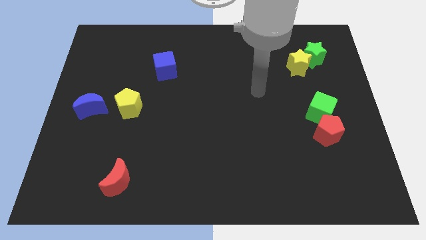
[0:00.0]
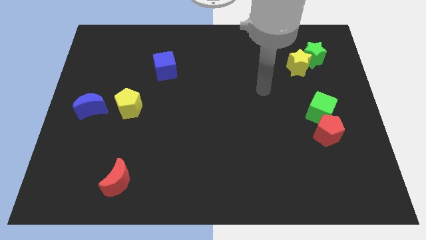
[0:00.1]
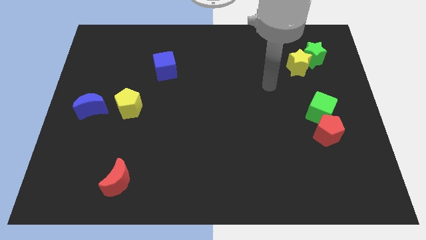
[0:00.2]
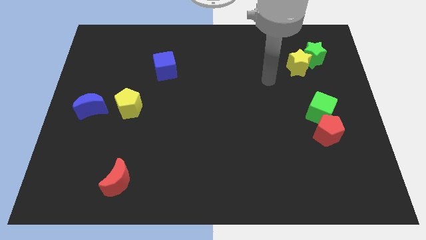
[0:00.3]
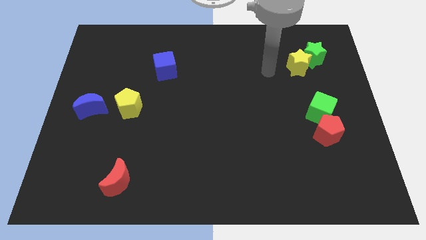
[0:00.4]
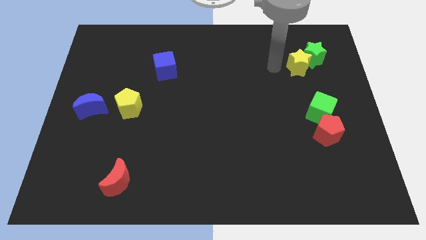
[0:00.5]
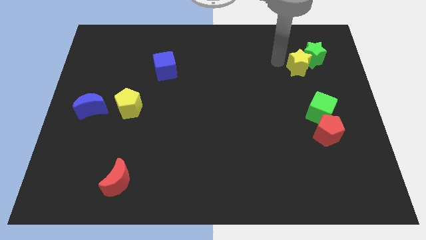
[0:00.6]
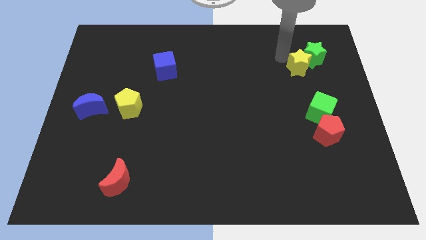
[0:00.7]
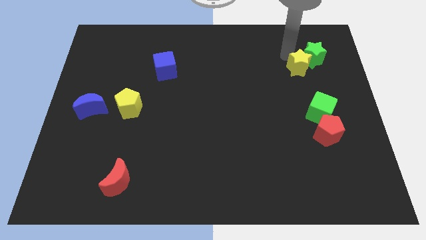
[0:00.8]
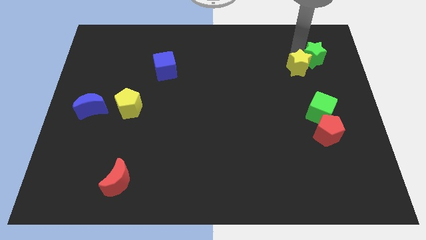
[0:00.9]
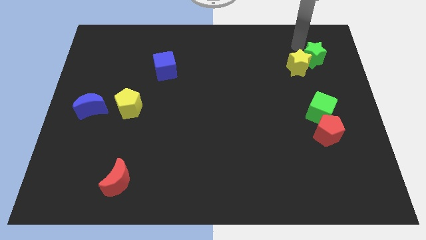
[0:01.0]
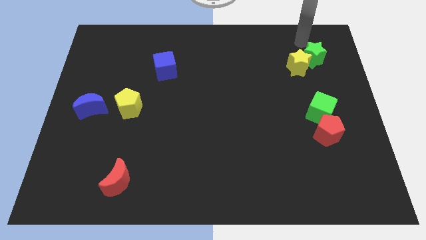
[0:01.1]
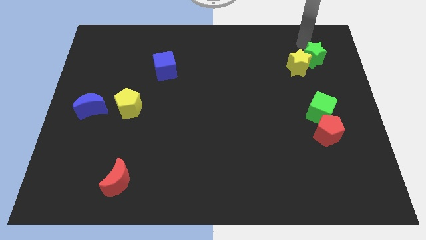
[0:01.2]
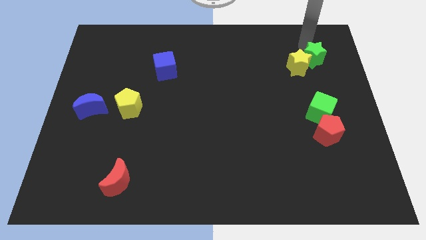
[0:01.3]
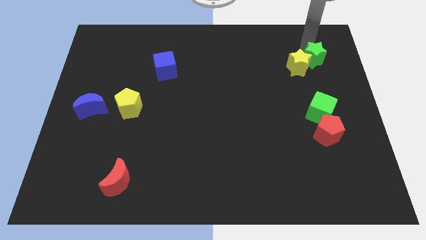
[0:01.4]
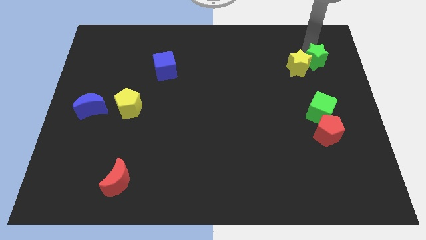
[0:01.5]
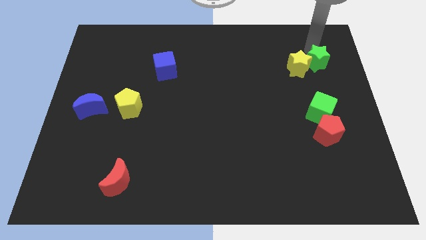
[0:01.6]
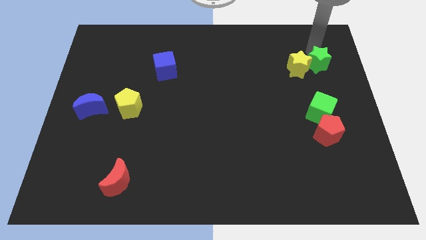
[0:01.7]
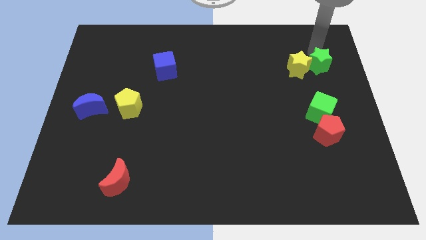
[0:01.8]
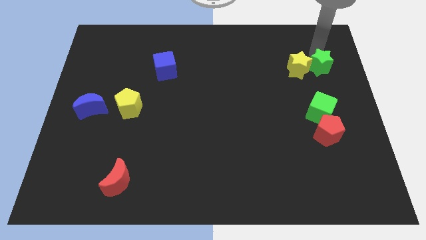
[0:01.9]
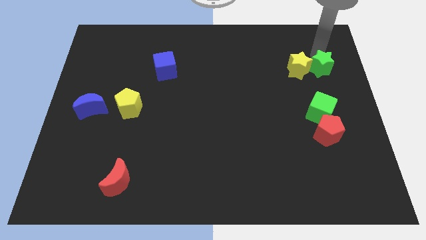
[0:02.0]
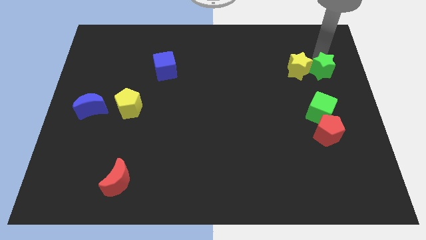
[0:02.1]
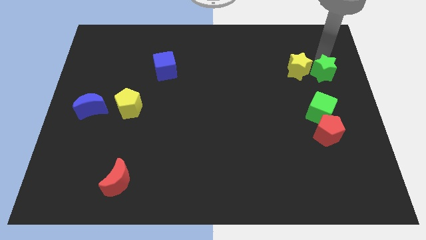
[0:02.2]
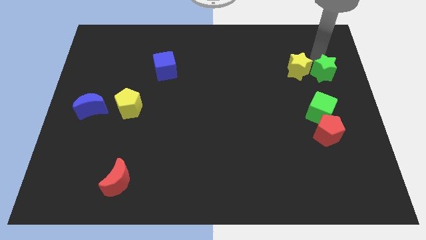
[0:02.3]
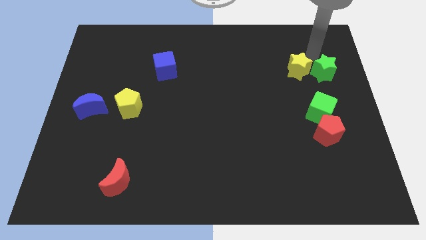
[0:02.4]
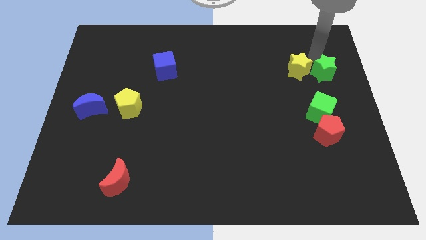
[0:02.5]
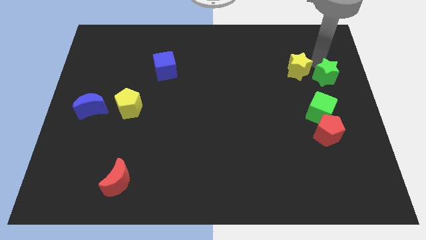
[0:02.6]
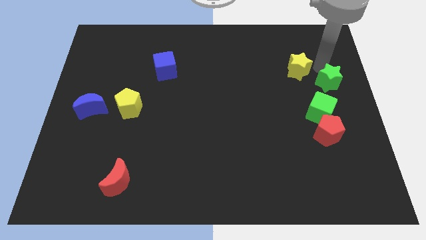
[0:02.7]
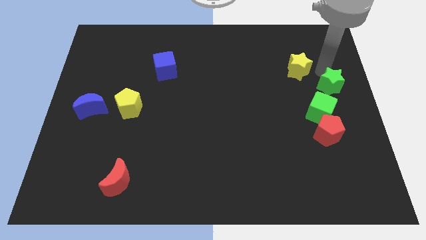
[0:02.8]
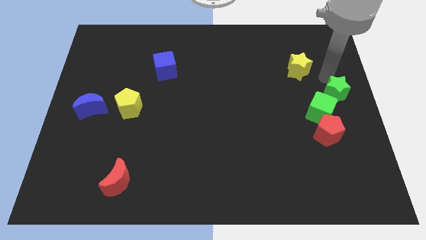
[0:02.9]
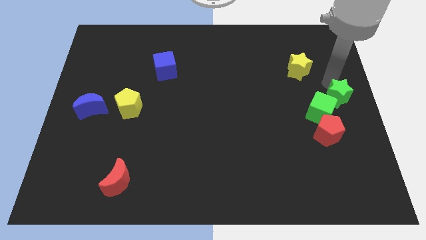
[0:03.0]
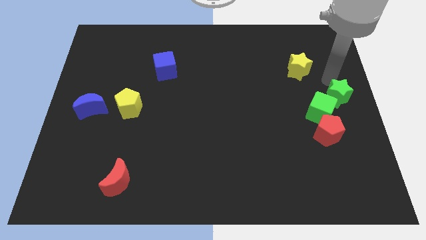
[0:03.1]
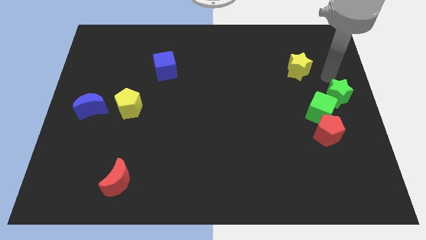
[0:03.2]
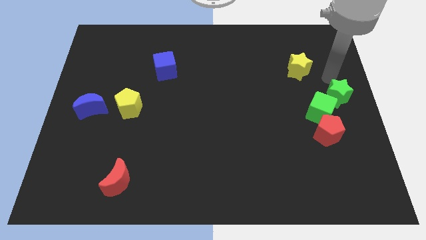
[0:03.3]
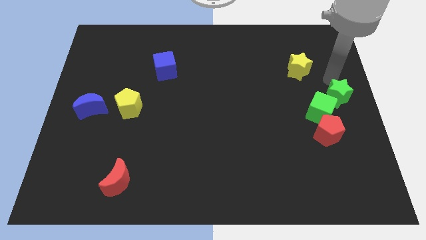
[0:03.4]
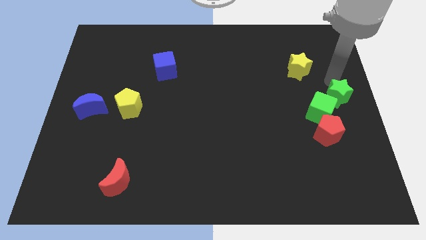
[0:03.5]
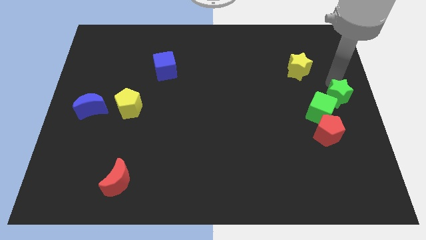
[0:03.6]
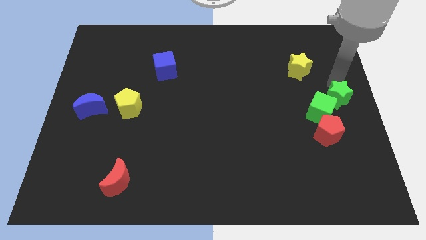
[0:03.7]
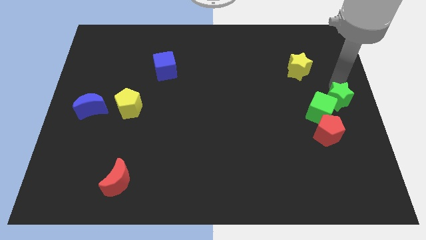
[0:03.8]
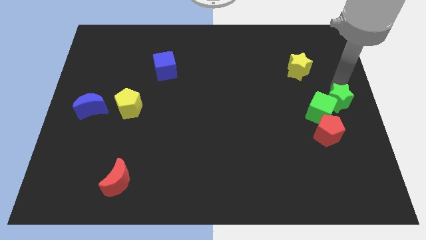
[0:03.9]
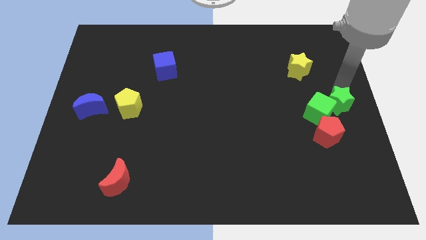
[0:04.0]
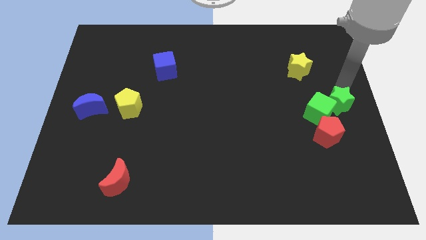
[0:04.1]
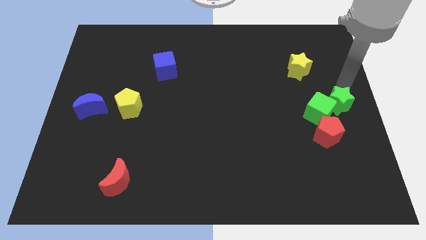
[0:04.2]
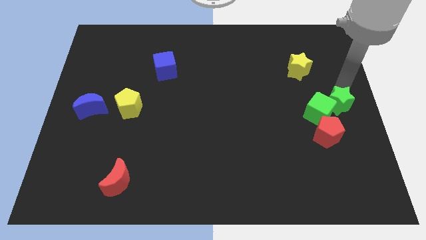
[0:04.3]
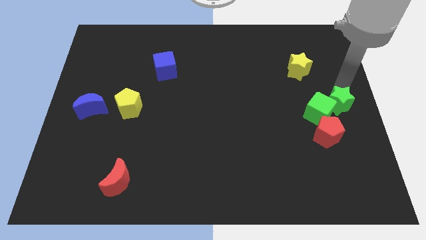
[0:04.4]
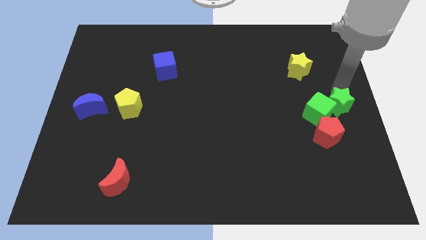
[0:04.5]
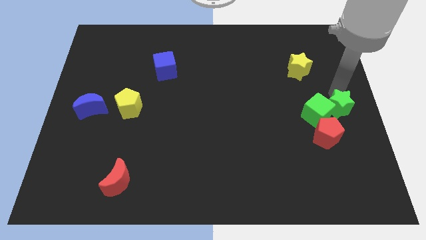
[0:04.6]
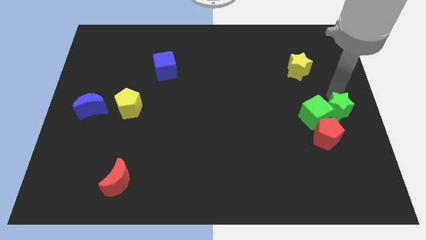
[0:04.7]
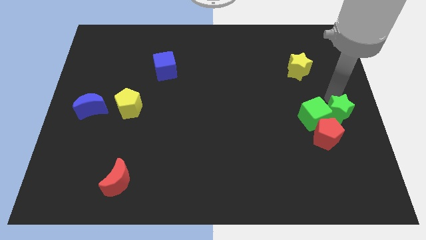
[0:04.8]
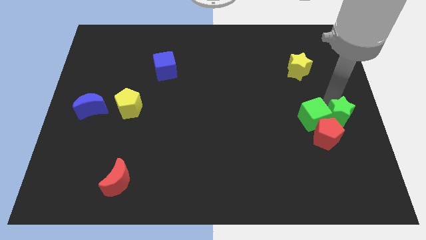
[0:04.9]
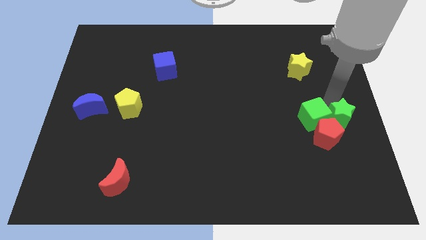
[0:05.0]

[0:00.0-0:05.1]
push the green star to the red pentagon

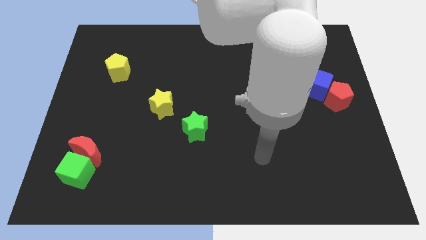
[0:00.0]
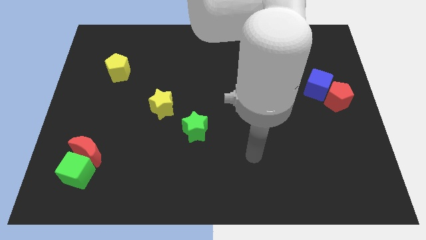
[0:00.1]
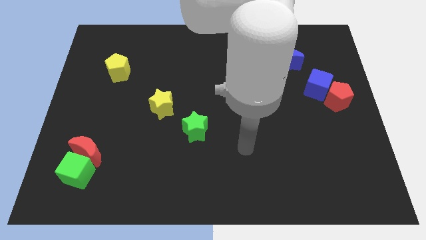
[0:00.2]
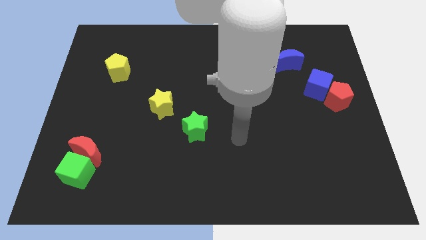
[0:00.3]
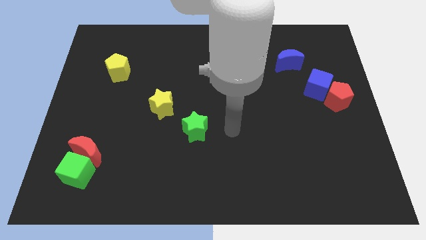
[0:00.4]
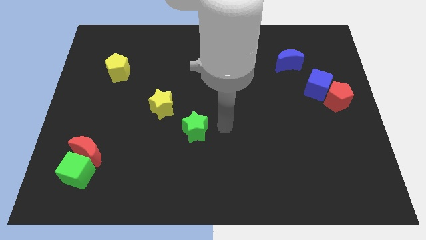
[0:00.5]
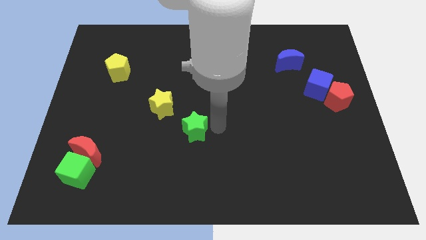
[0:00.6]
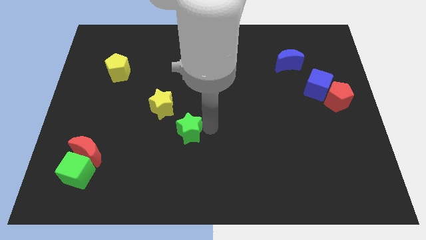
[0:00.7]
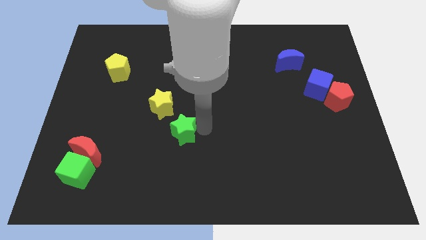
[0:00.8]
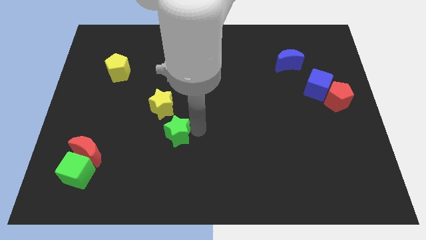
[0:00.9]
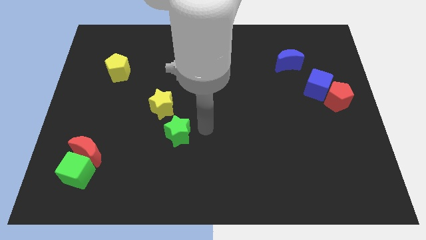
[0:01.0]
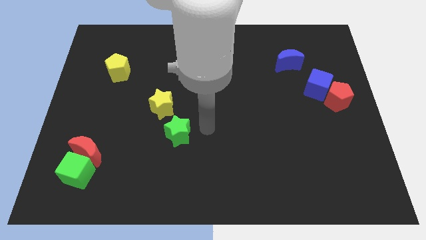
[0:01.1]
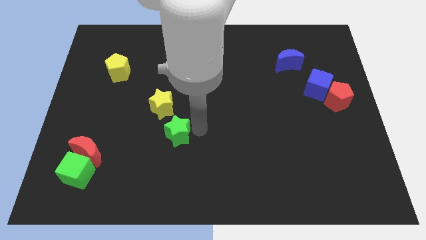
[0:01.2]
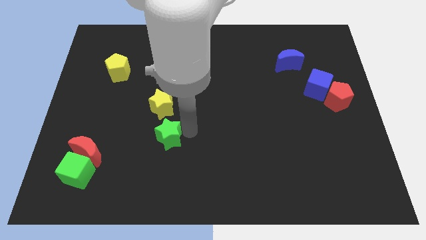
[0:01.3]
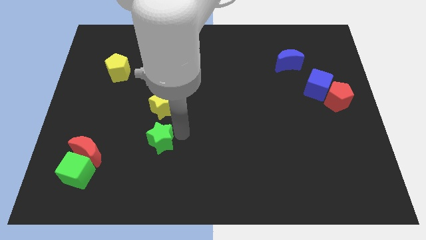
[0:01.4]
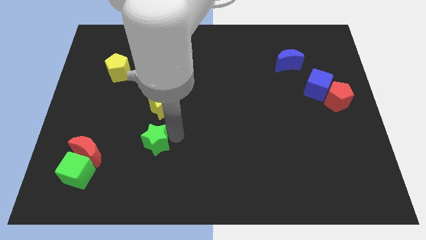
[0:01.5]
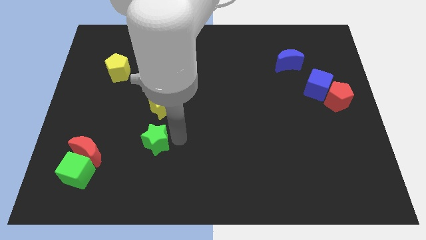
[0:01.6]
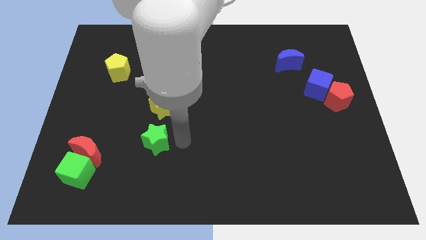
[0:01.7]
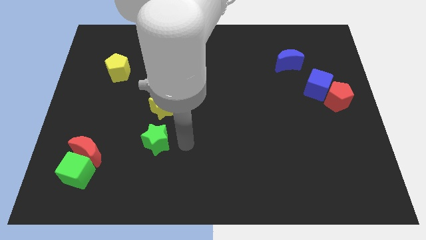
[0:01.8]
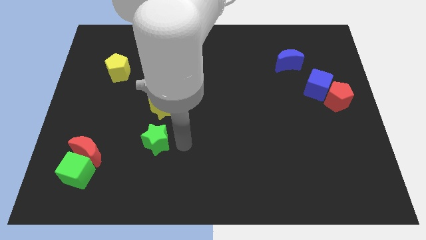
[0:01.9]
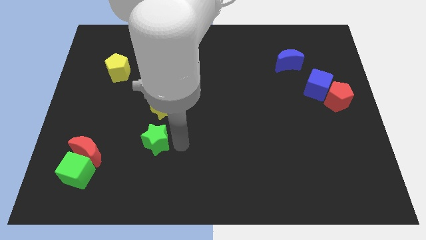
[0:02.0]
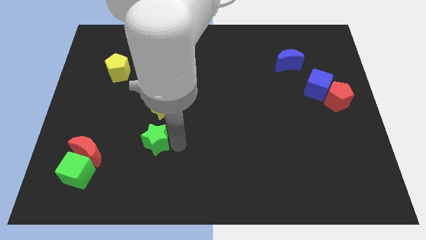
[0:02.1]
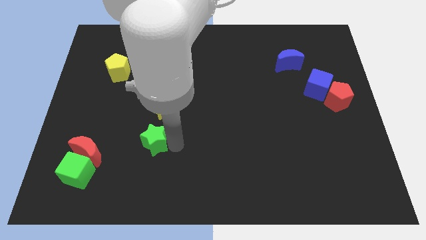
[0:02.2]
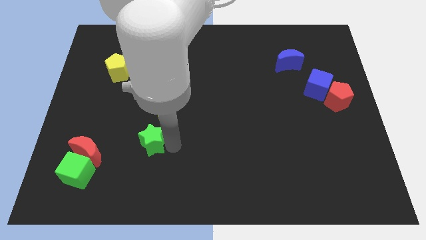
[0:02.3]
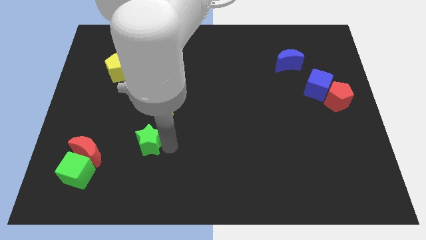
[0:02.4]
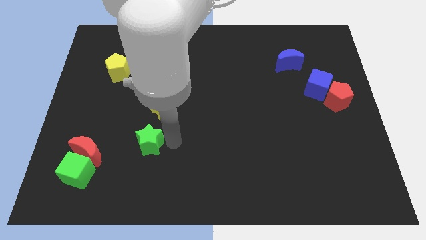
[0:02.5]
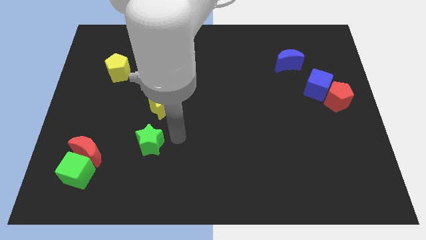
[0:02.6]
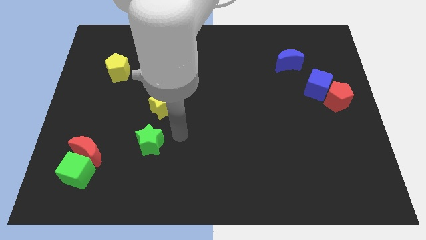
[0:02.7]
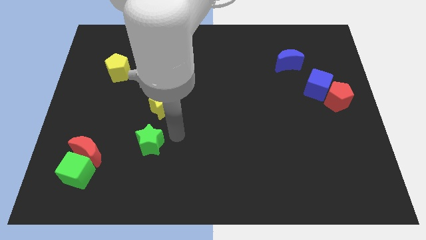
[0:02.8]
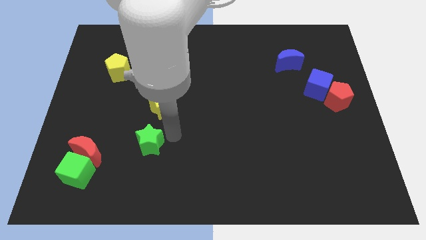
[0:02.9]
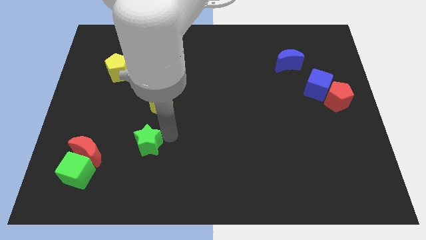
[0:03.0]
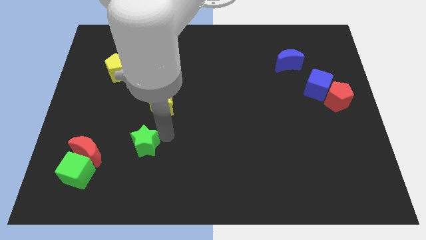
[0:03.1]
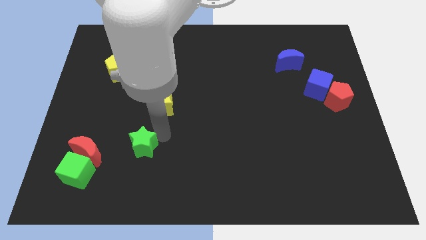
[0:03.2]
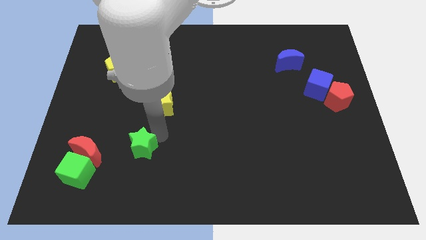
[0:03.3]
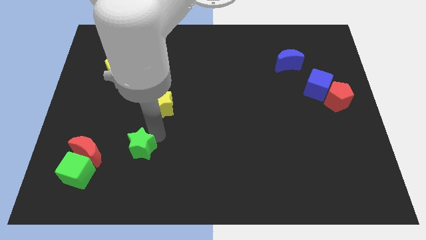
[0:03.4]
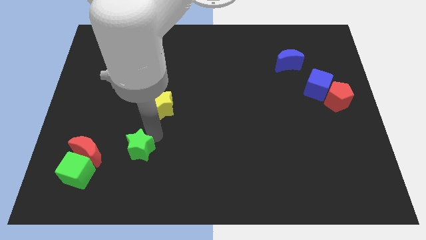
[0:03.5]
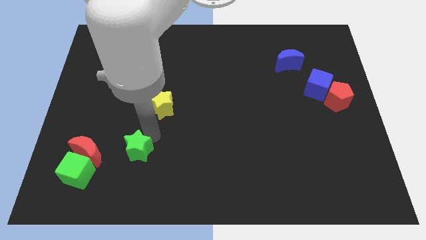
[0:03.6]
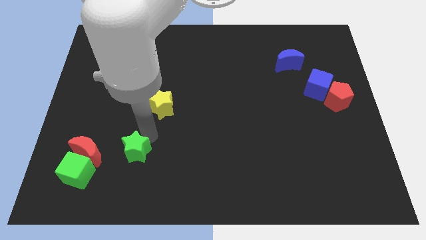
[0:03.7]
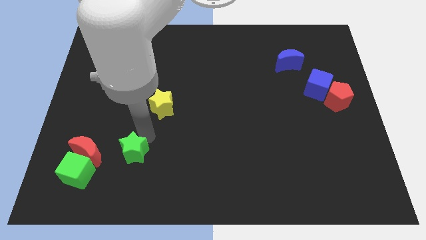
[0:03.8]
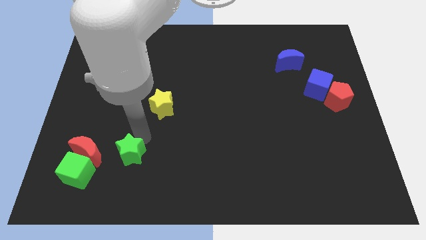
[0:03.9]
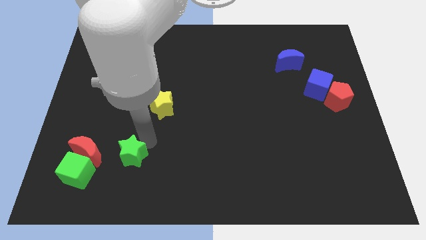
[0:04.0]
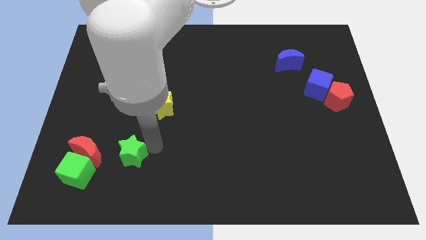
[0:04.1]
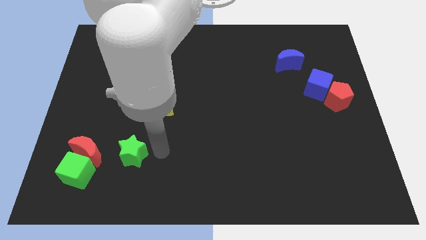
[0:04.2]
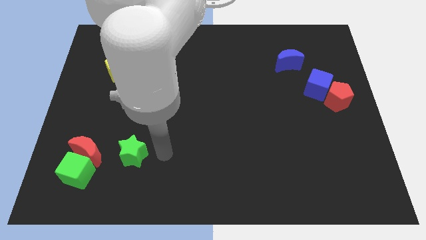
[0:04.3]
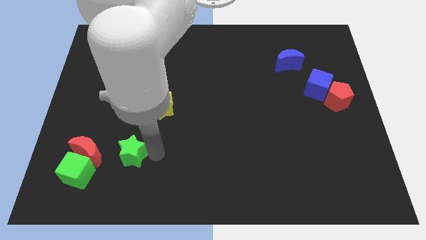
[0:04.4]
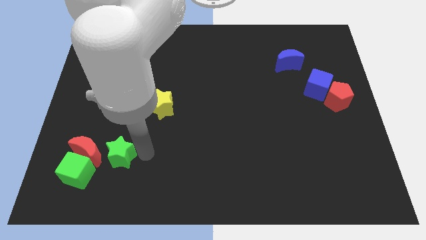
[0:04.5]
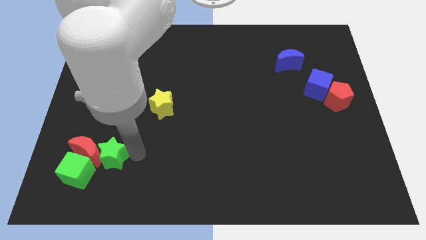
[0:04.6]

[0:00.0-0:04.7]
put the green star next to the red moon
